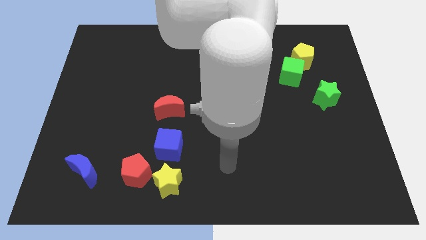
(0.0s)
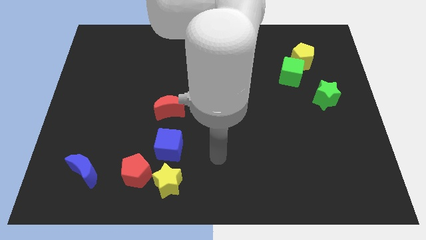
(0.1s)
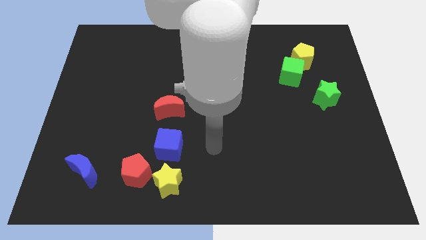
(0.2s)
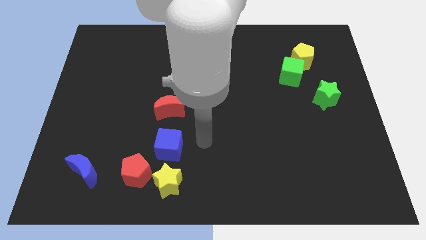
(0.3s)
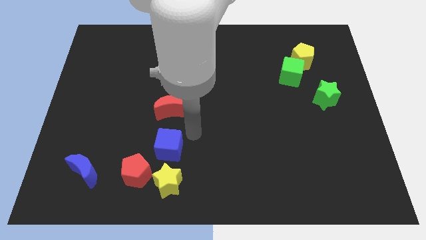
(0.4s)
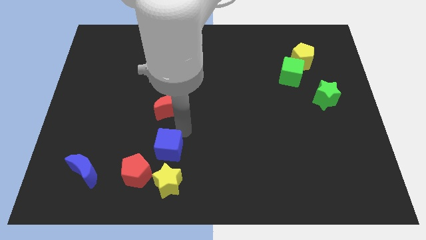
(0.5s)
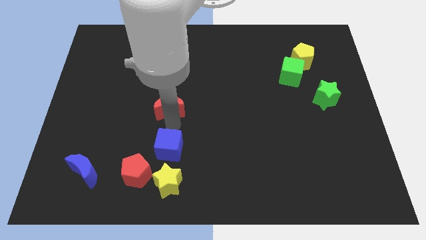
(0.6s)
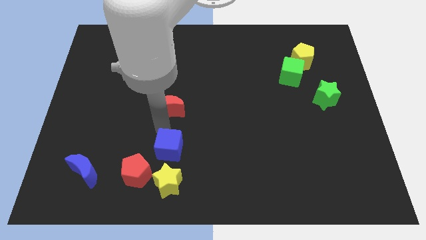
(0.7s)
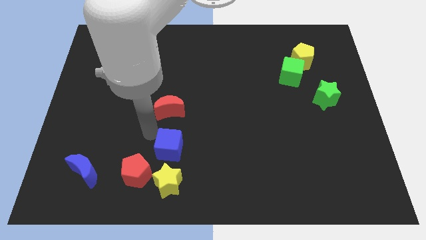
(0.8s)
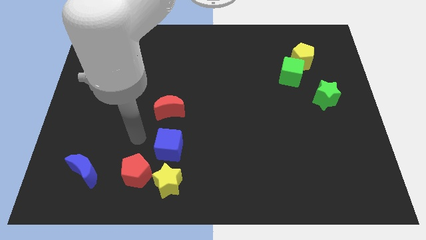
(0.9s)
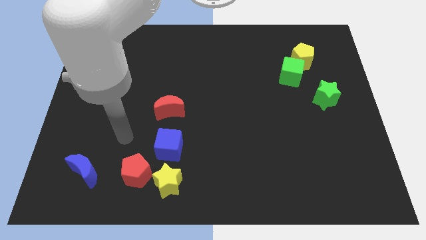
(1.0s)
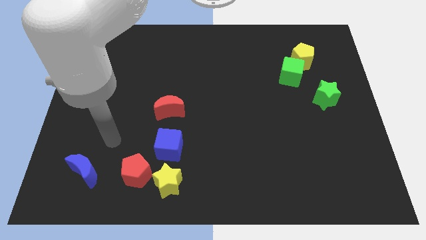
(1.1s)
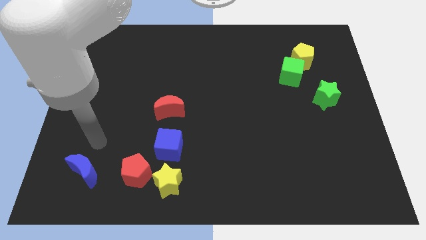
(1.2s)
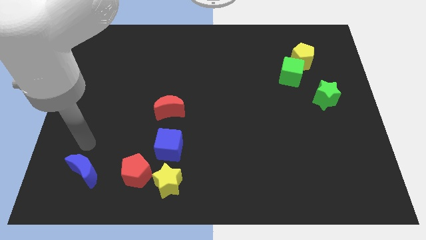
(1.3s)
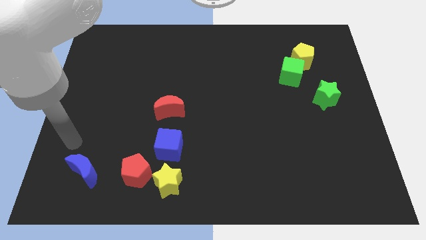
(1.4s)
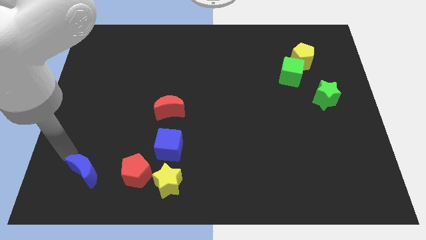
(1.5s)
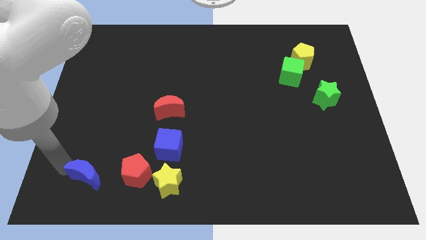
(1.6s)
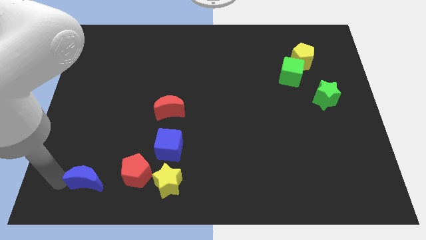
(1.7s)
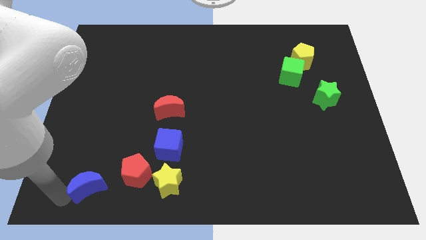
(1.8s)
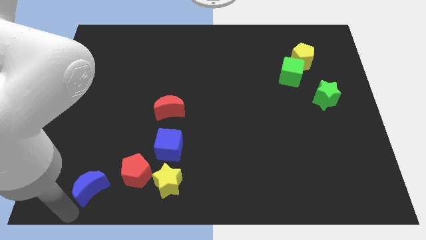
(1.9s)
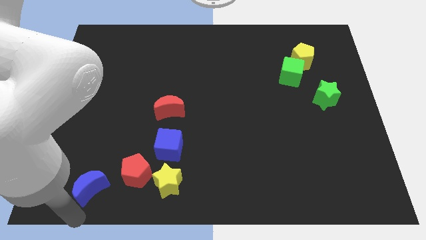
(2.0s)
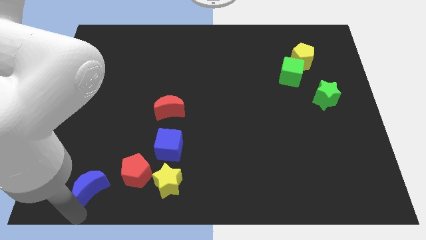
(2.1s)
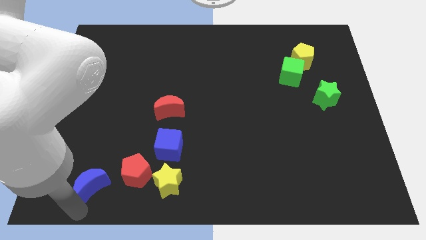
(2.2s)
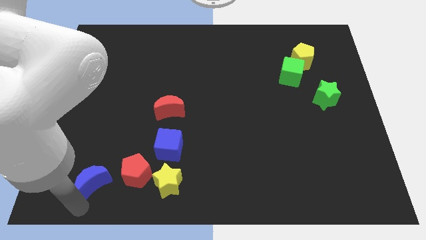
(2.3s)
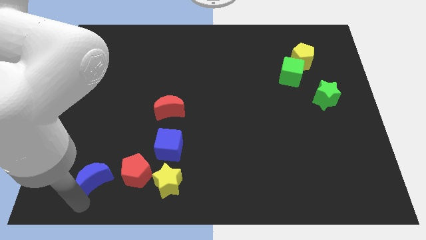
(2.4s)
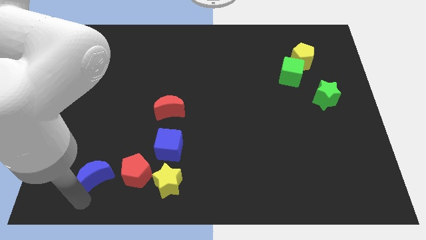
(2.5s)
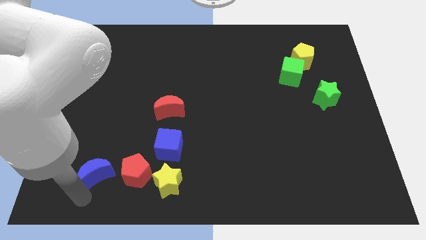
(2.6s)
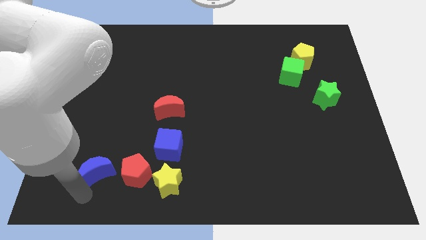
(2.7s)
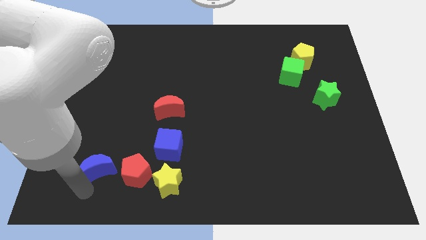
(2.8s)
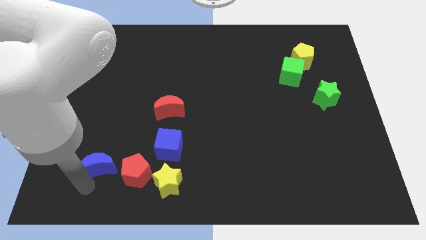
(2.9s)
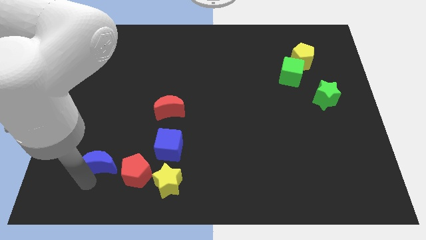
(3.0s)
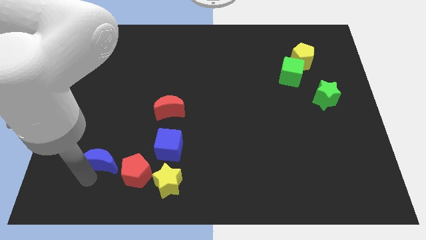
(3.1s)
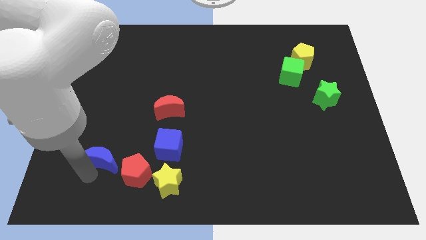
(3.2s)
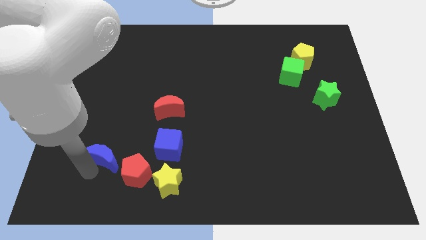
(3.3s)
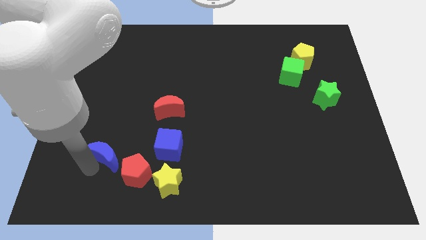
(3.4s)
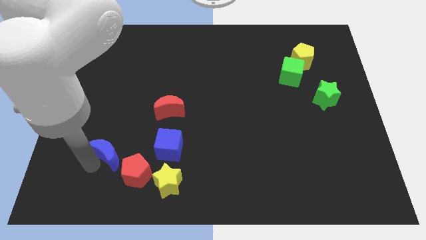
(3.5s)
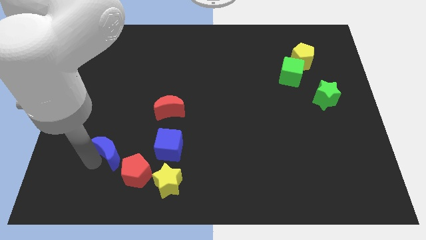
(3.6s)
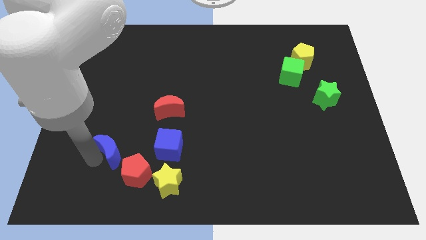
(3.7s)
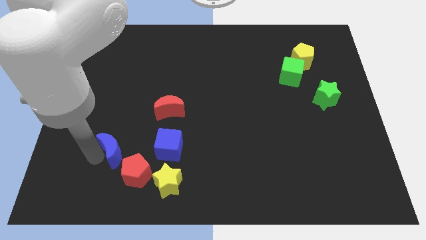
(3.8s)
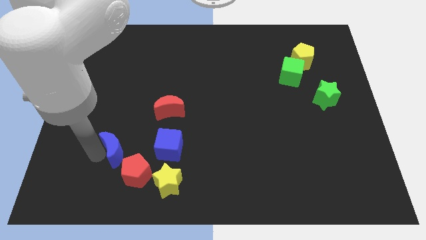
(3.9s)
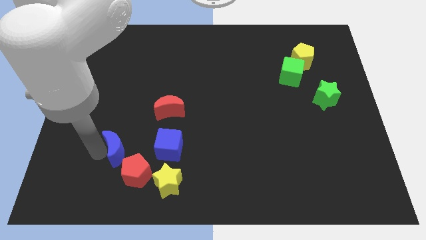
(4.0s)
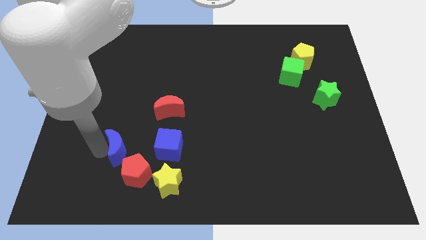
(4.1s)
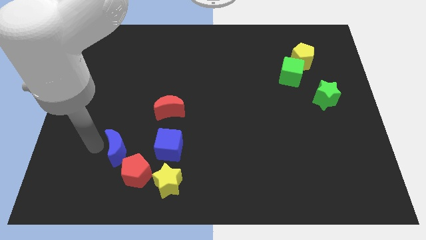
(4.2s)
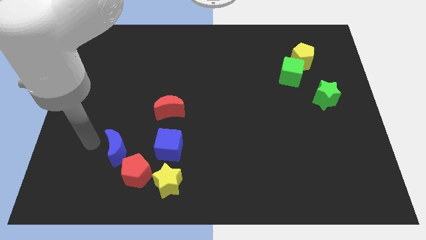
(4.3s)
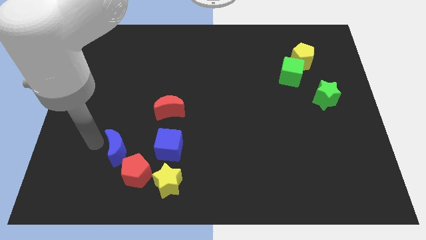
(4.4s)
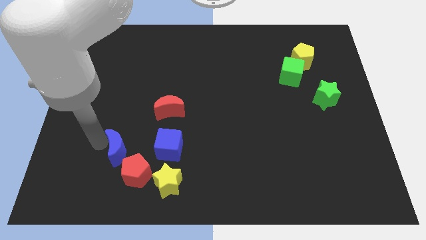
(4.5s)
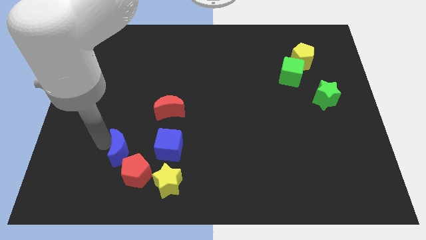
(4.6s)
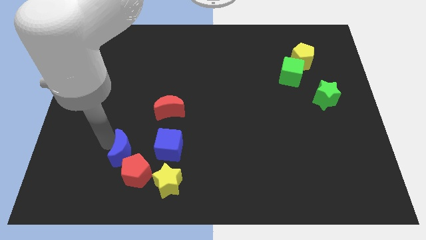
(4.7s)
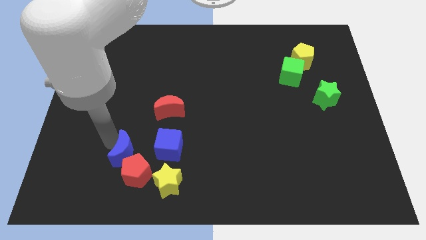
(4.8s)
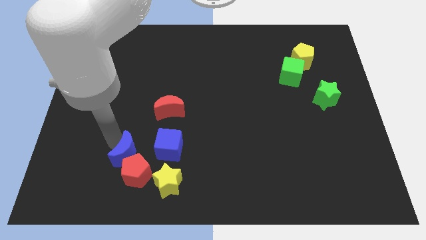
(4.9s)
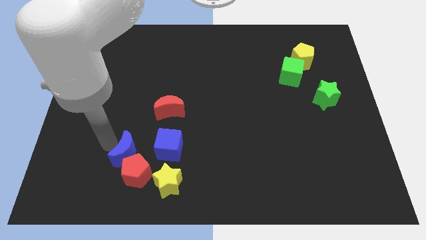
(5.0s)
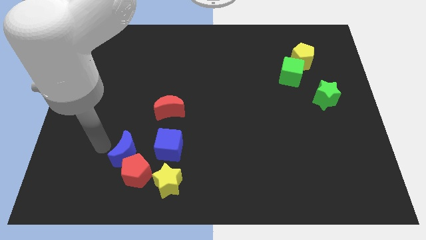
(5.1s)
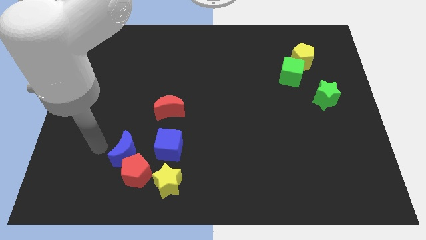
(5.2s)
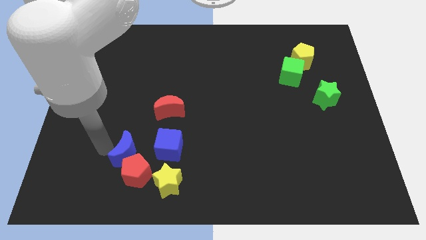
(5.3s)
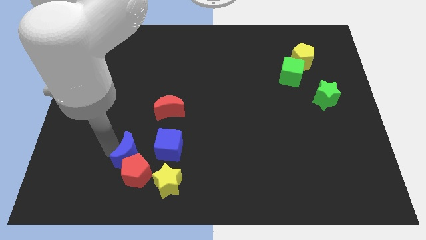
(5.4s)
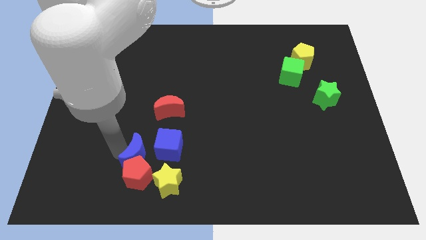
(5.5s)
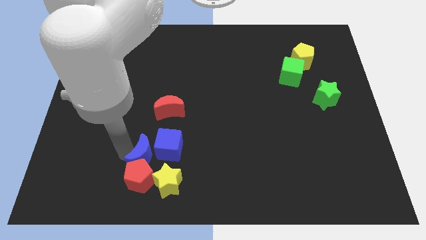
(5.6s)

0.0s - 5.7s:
push the blue moon to the bottom of the red moon

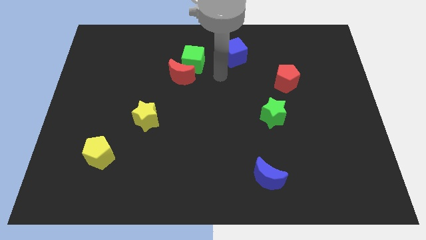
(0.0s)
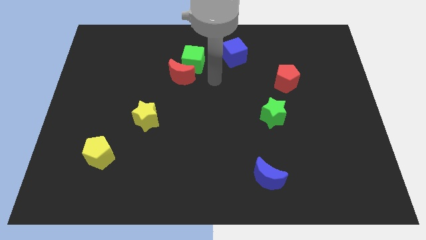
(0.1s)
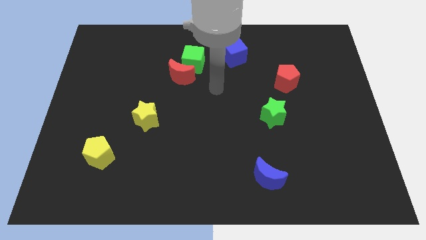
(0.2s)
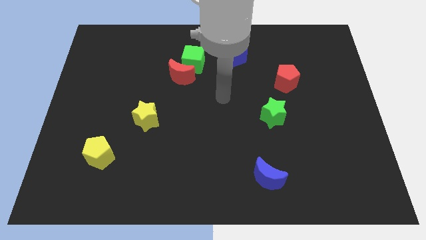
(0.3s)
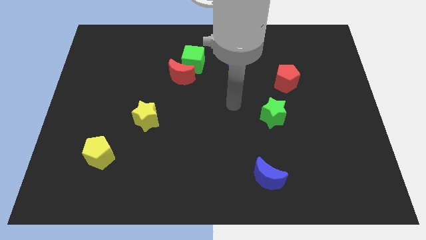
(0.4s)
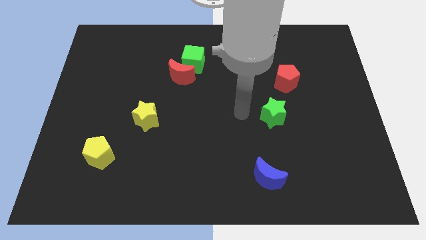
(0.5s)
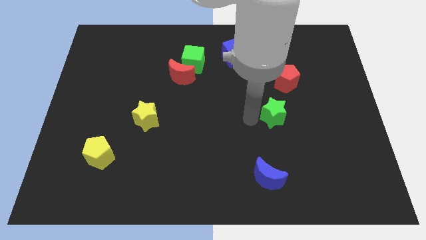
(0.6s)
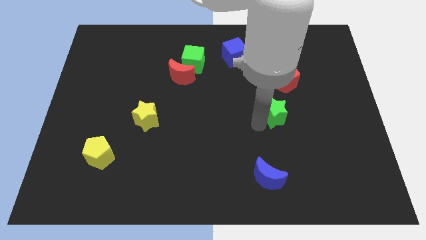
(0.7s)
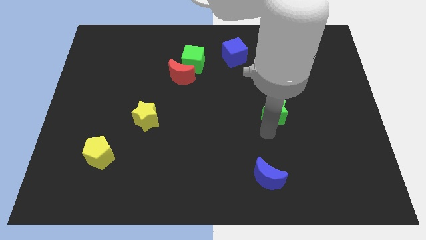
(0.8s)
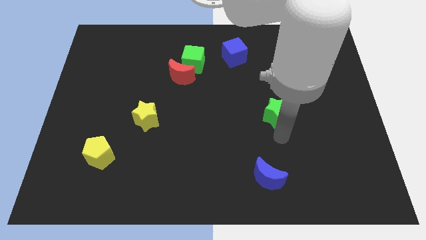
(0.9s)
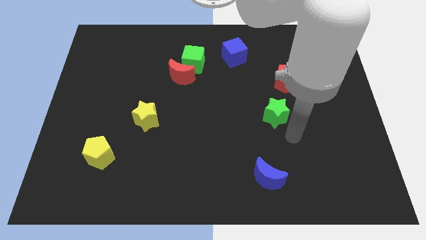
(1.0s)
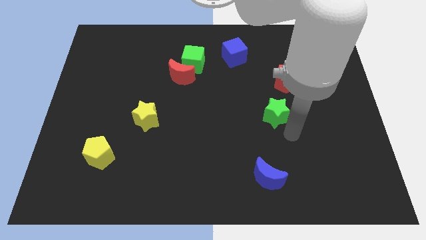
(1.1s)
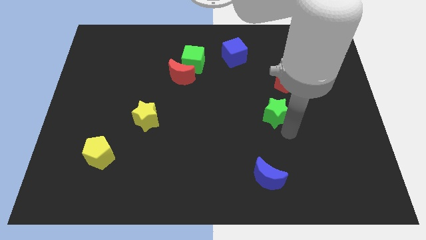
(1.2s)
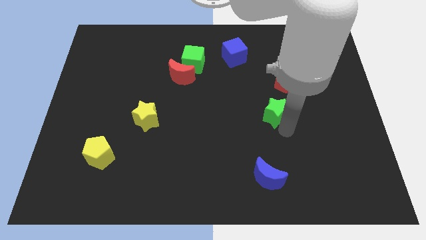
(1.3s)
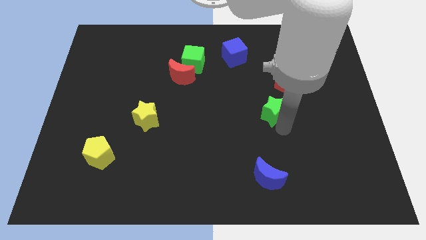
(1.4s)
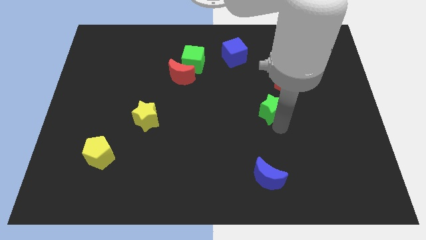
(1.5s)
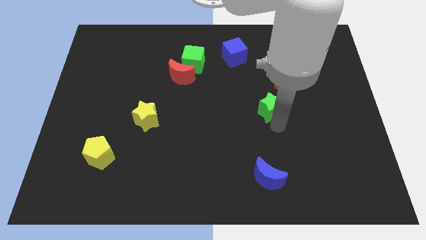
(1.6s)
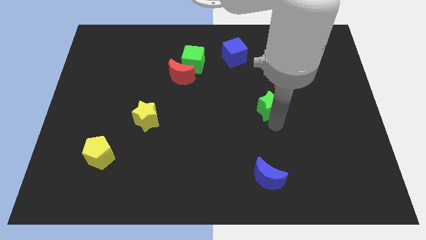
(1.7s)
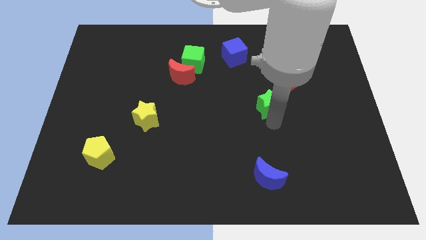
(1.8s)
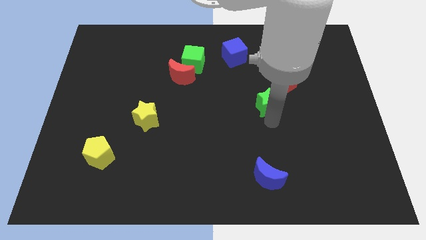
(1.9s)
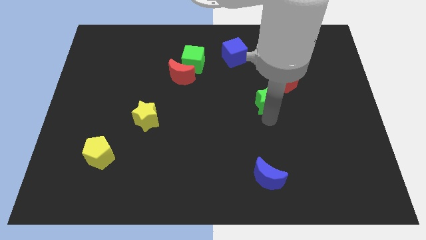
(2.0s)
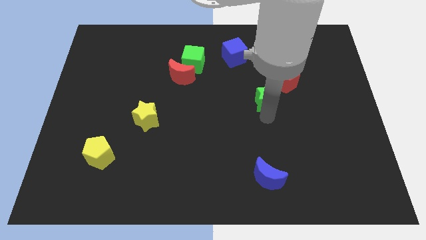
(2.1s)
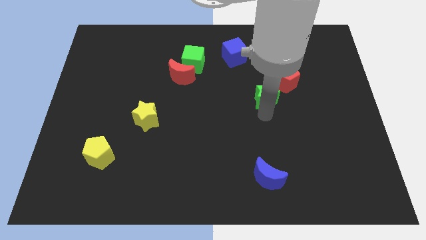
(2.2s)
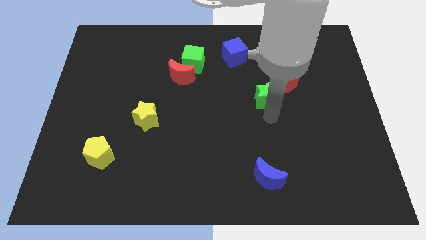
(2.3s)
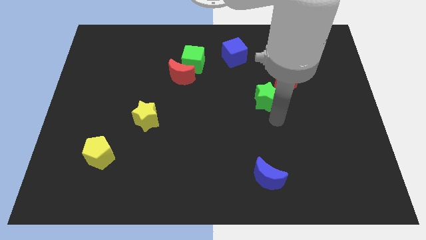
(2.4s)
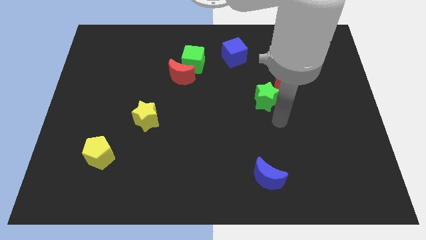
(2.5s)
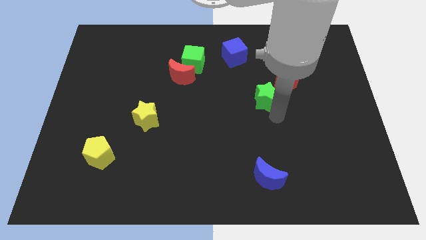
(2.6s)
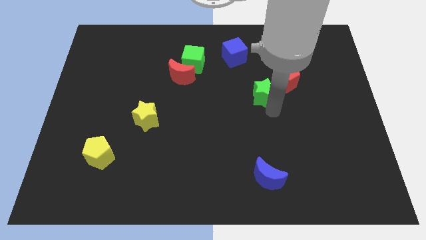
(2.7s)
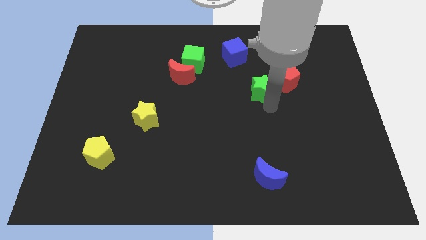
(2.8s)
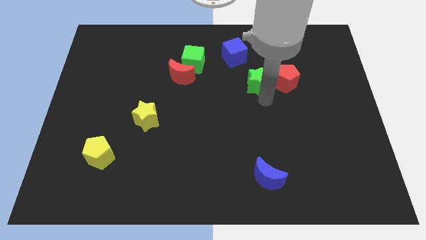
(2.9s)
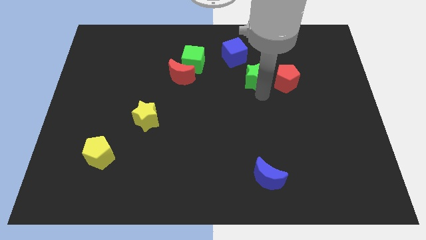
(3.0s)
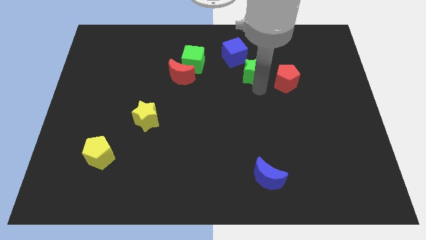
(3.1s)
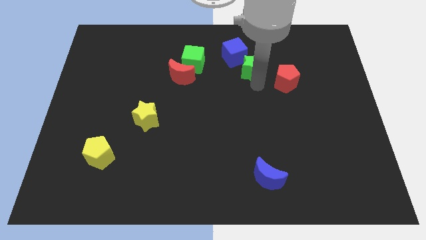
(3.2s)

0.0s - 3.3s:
push the green star to the right side of the green cube
